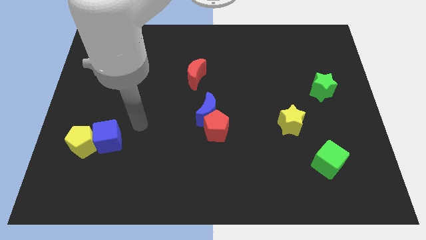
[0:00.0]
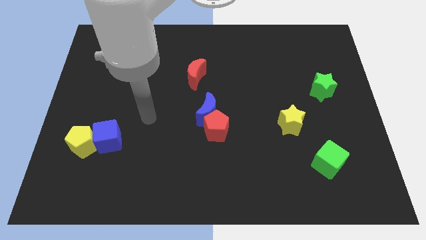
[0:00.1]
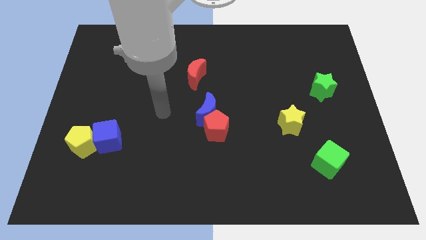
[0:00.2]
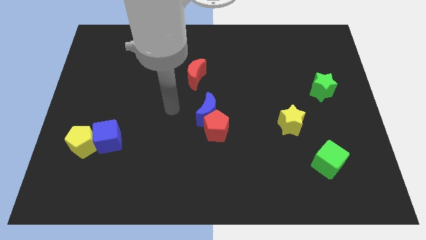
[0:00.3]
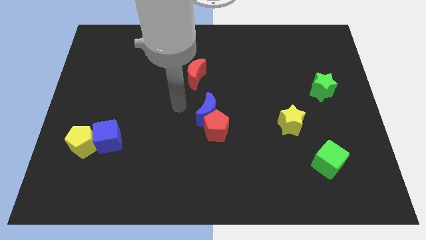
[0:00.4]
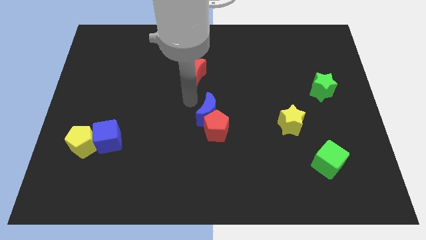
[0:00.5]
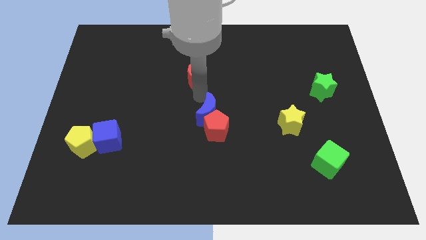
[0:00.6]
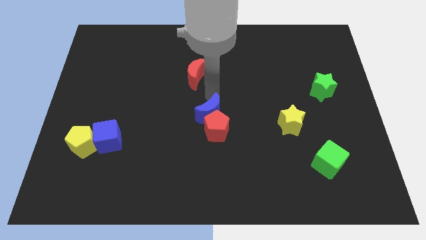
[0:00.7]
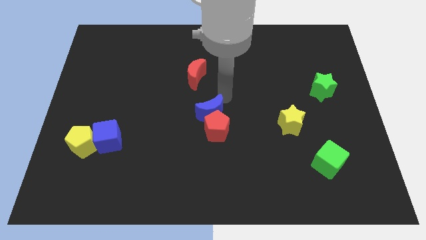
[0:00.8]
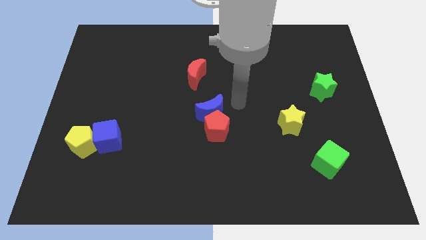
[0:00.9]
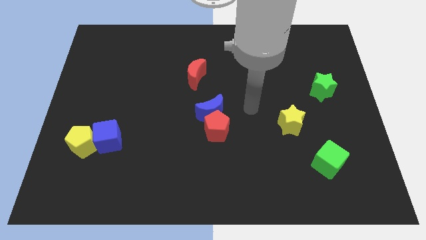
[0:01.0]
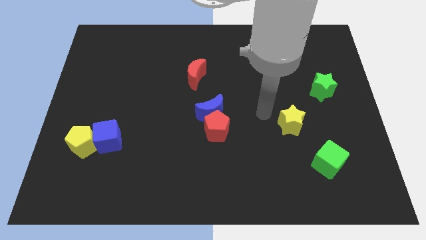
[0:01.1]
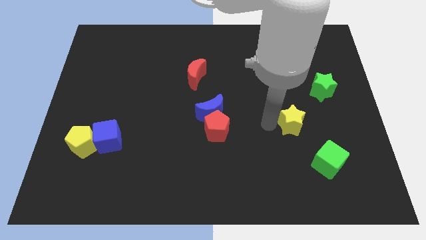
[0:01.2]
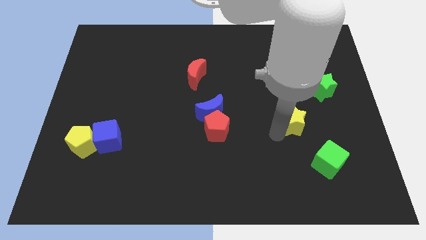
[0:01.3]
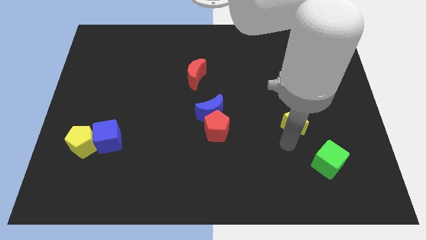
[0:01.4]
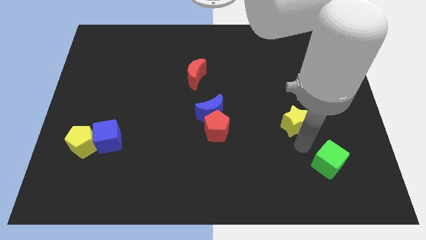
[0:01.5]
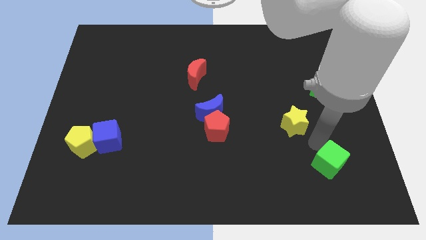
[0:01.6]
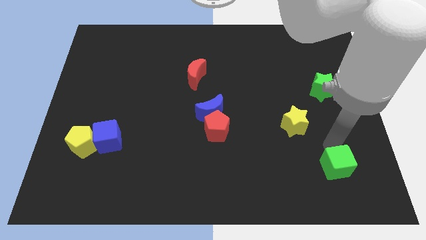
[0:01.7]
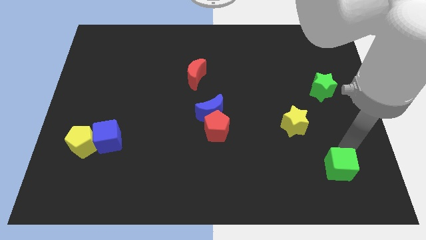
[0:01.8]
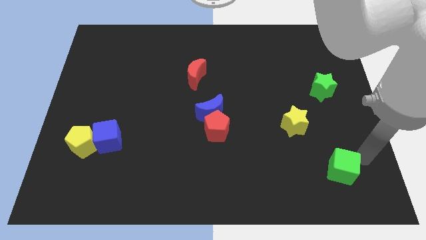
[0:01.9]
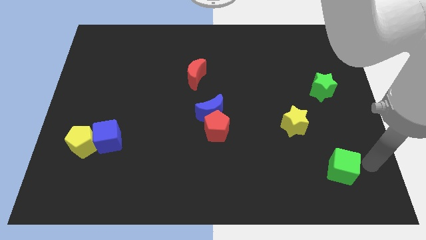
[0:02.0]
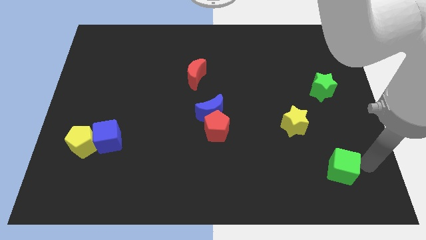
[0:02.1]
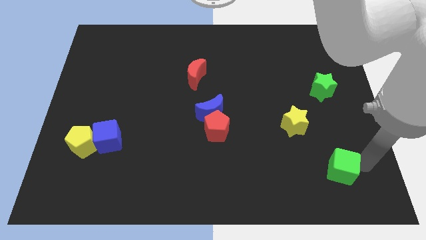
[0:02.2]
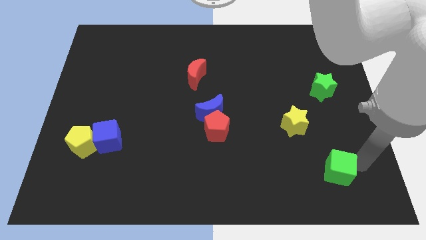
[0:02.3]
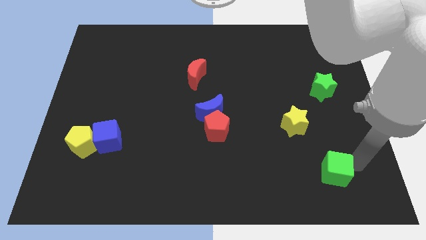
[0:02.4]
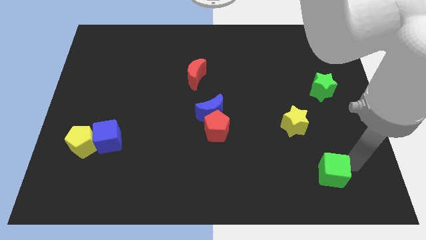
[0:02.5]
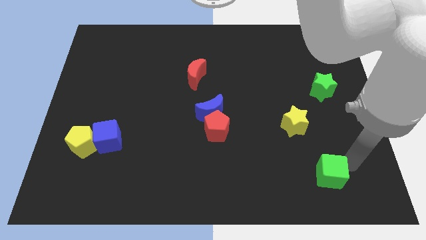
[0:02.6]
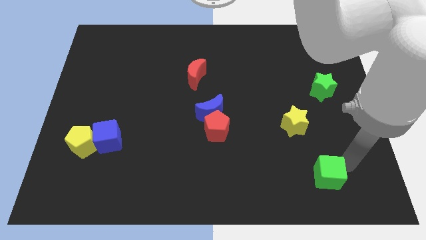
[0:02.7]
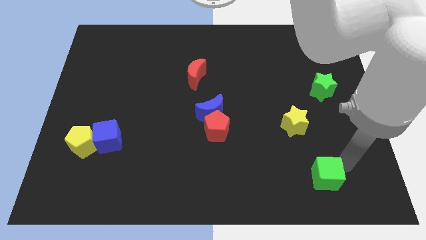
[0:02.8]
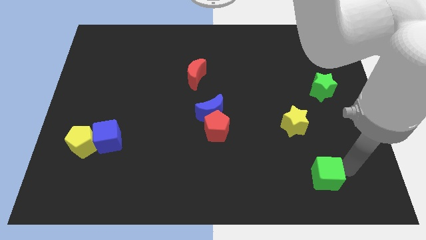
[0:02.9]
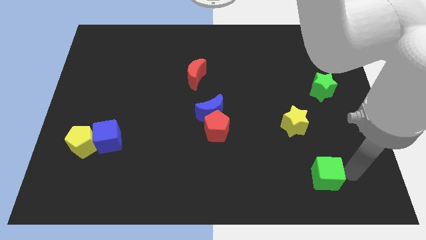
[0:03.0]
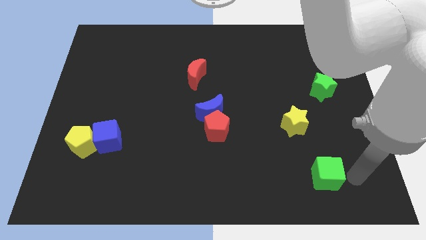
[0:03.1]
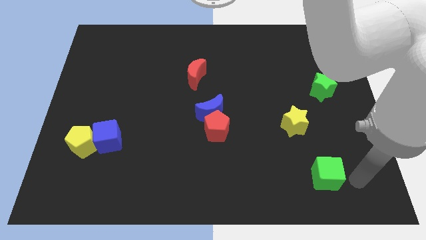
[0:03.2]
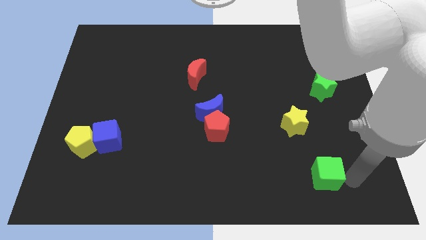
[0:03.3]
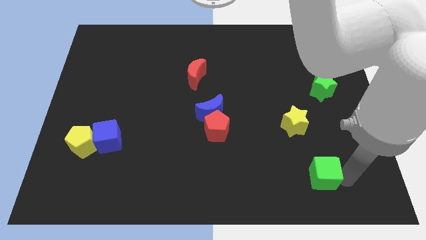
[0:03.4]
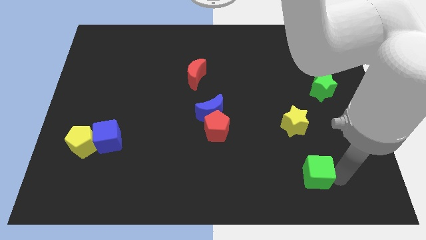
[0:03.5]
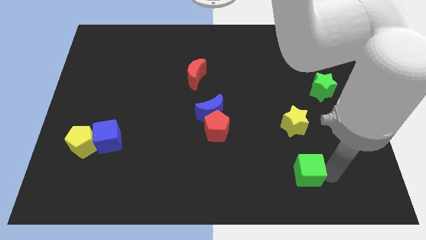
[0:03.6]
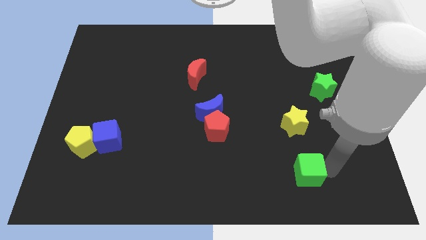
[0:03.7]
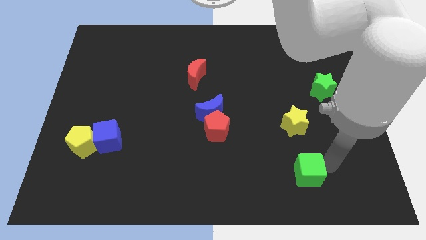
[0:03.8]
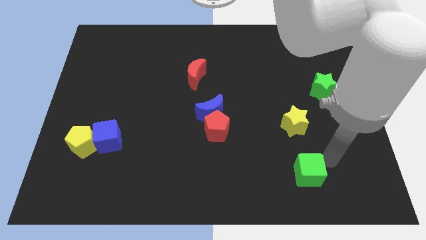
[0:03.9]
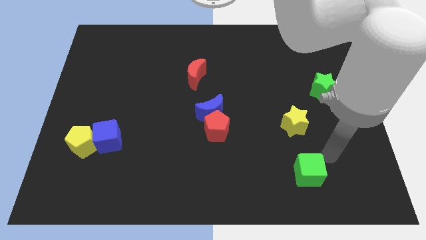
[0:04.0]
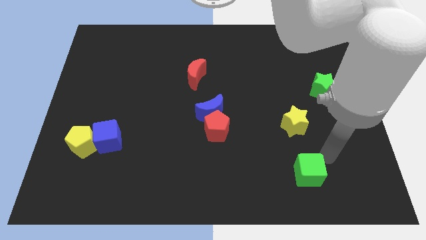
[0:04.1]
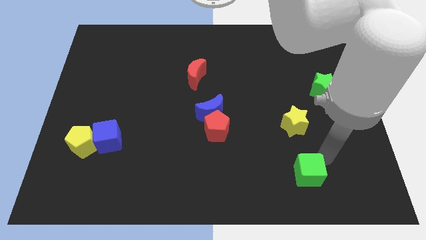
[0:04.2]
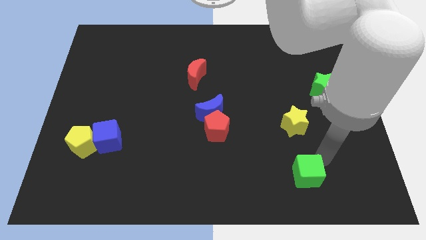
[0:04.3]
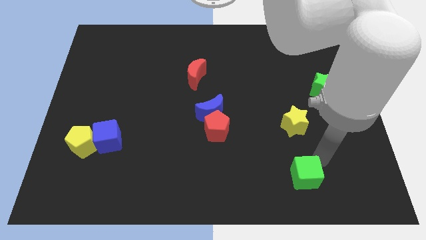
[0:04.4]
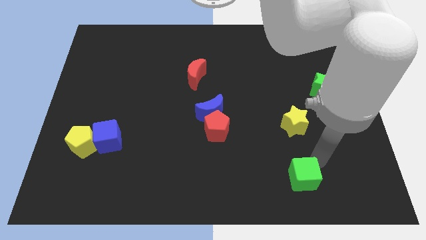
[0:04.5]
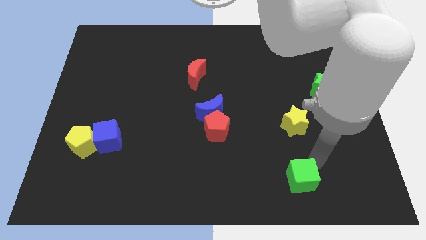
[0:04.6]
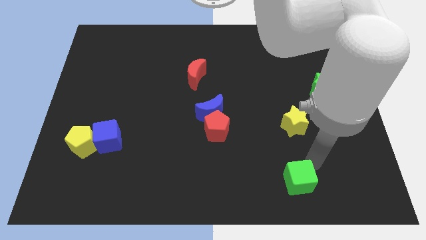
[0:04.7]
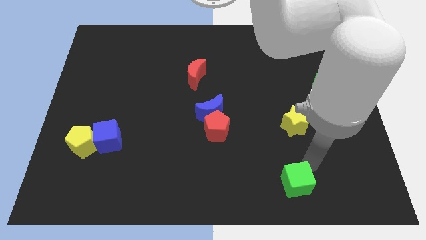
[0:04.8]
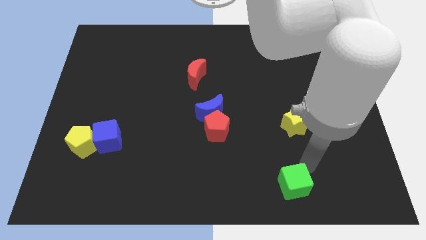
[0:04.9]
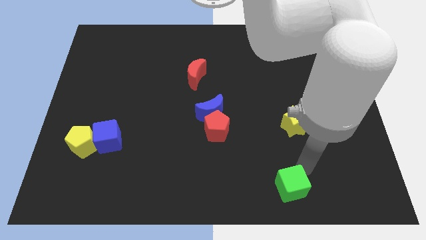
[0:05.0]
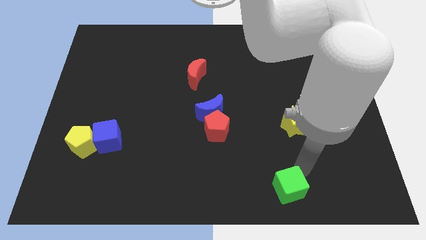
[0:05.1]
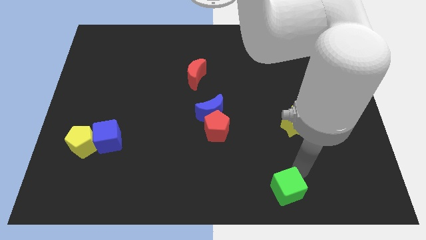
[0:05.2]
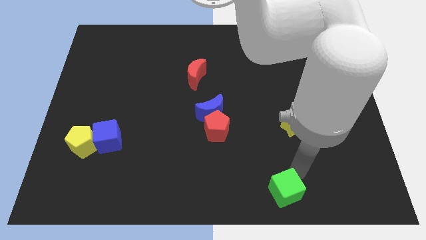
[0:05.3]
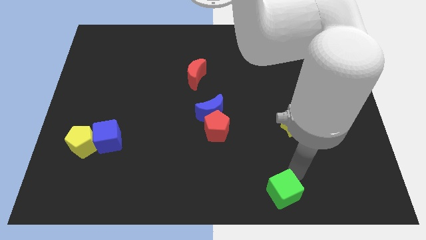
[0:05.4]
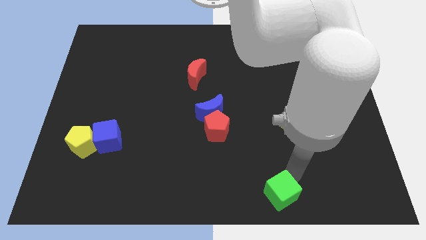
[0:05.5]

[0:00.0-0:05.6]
push the green cube to the bottom

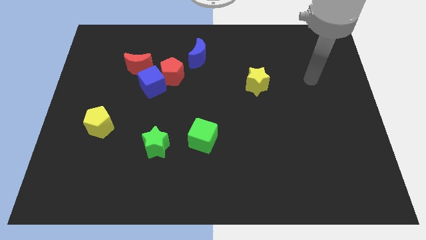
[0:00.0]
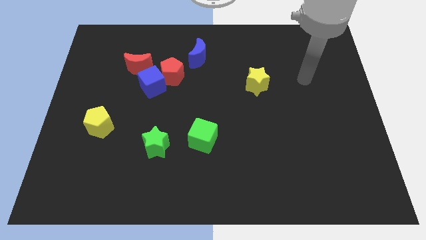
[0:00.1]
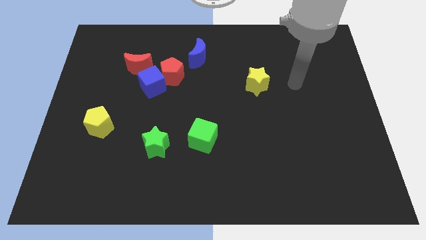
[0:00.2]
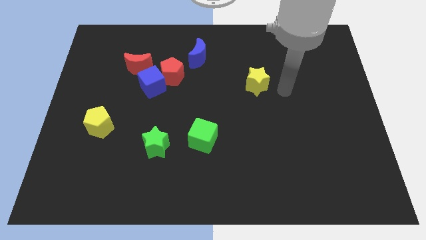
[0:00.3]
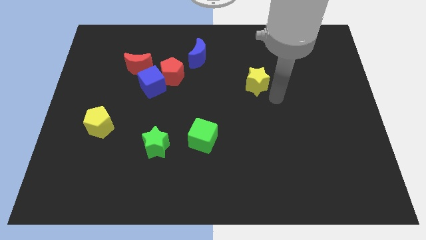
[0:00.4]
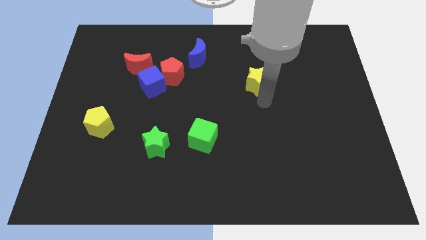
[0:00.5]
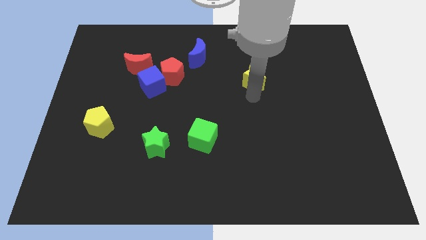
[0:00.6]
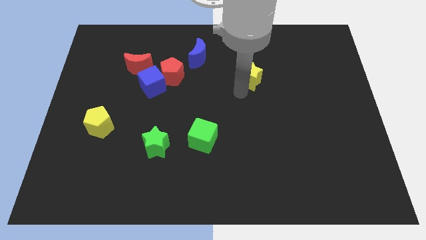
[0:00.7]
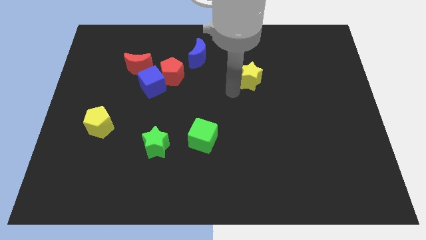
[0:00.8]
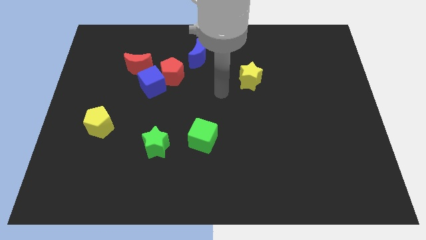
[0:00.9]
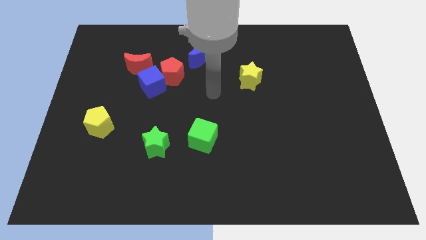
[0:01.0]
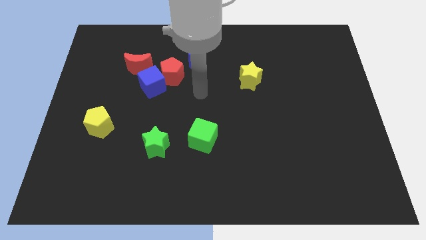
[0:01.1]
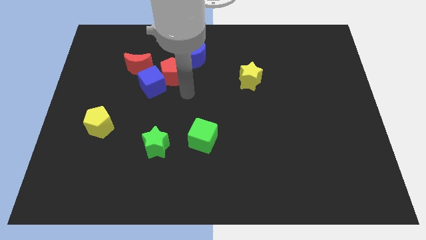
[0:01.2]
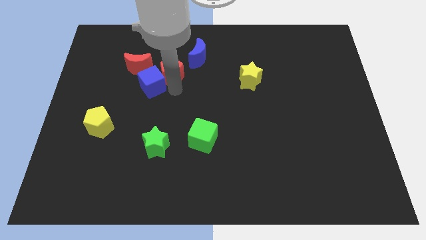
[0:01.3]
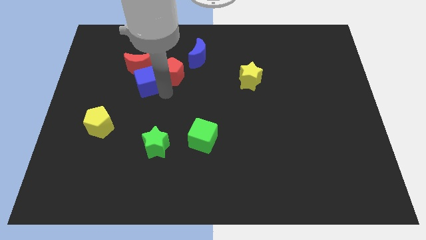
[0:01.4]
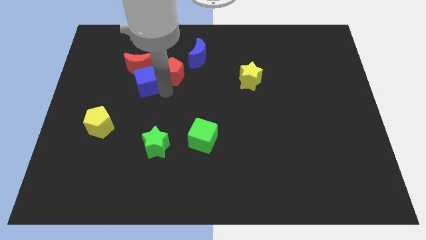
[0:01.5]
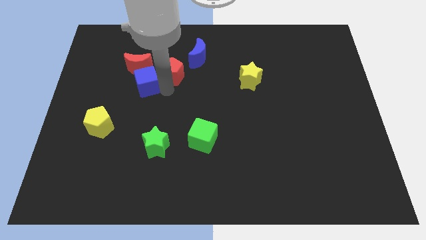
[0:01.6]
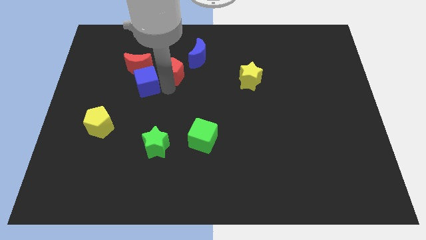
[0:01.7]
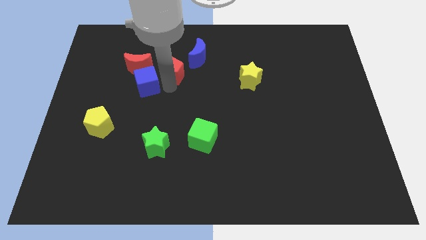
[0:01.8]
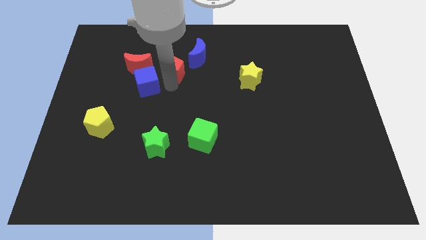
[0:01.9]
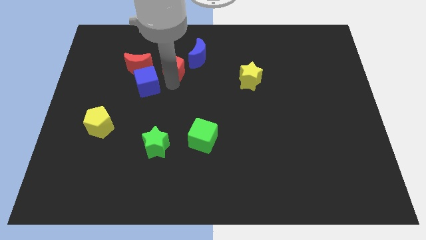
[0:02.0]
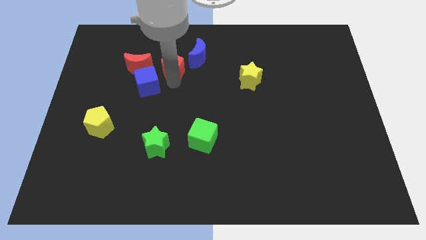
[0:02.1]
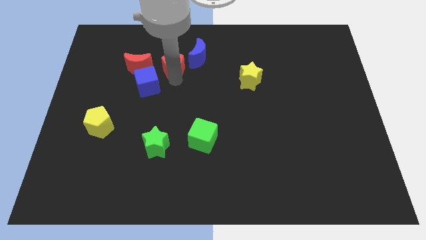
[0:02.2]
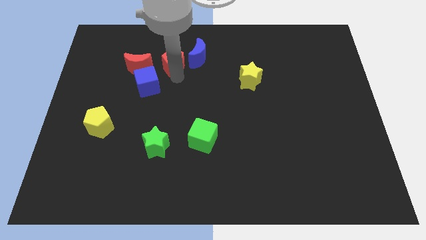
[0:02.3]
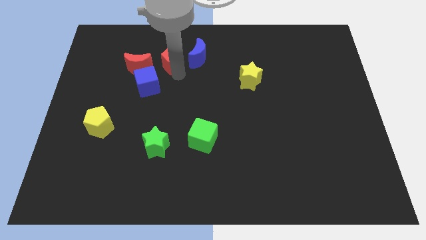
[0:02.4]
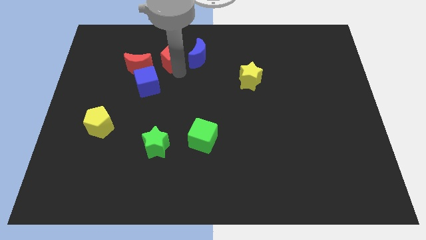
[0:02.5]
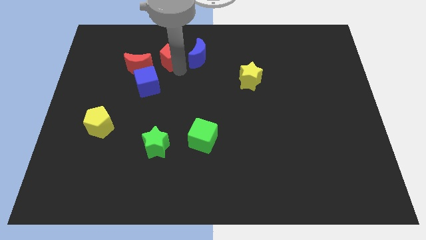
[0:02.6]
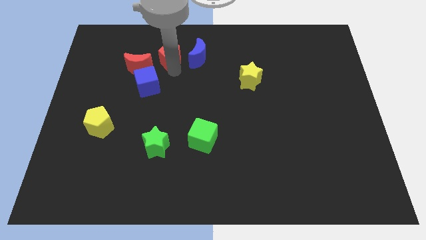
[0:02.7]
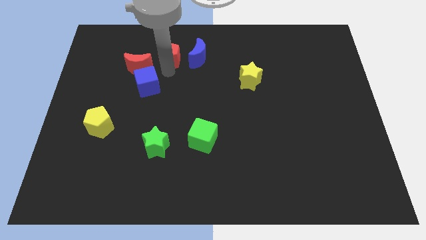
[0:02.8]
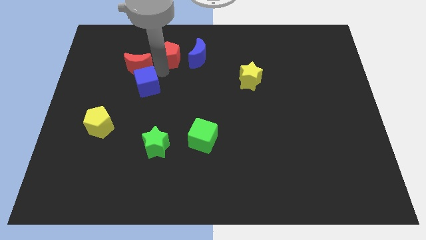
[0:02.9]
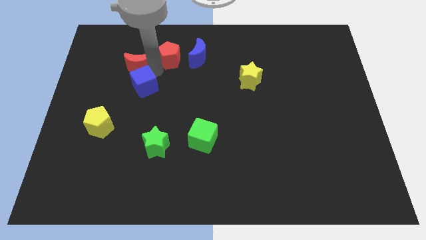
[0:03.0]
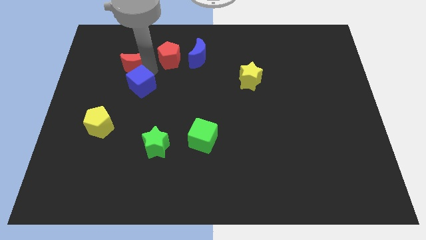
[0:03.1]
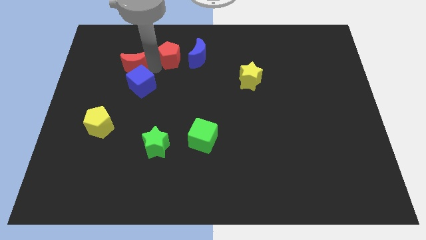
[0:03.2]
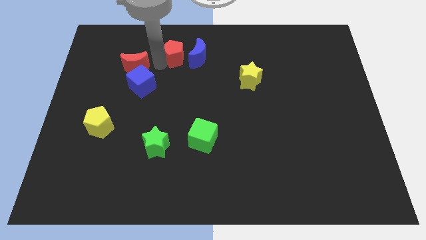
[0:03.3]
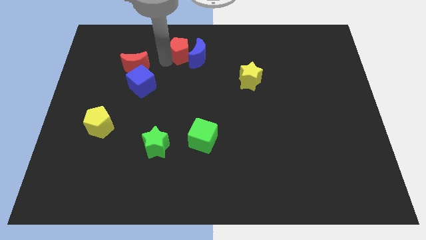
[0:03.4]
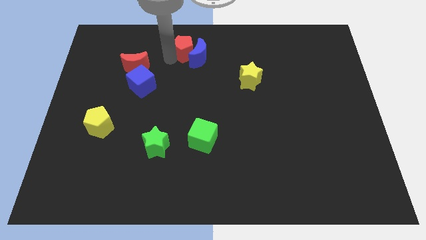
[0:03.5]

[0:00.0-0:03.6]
slide the red pentagon to the top
